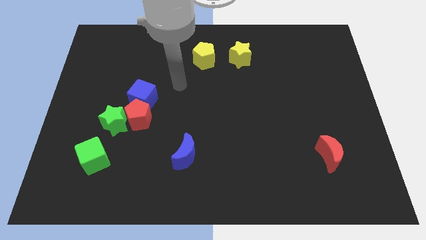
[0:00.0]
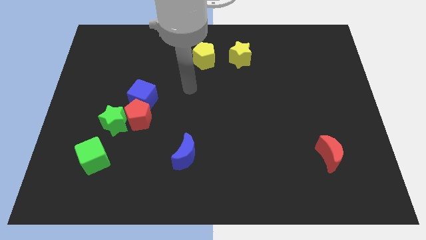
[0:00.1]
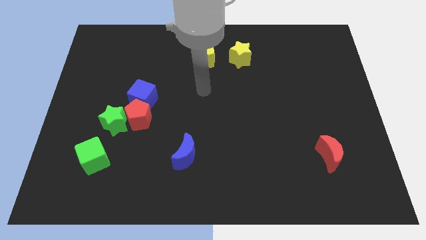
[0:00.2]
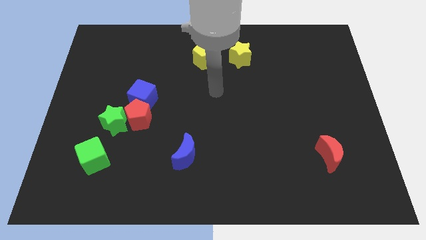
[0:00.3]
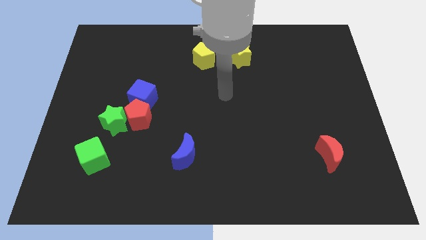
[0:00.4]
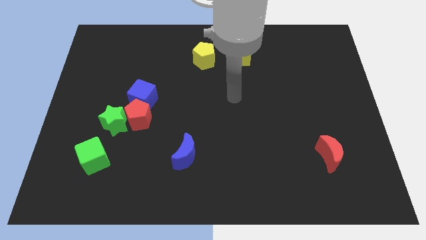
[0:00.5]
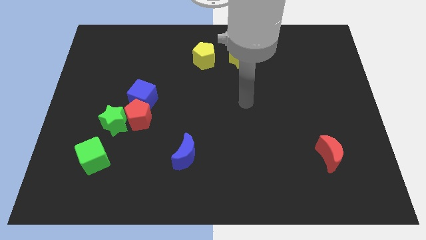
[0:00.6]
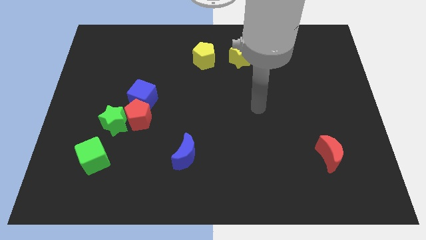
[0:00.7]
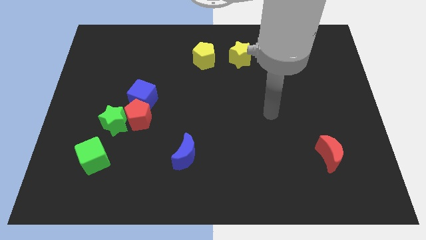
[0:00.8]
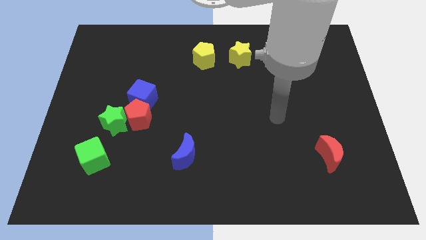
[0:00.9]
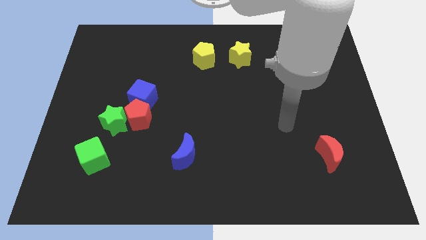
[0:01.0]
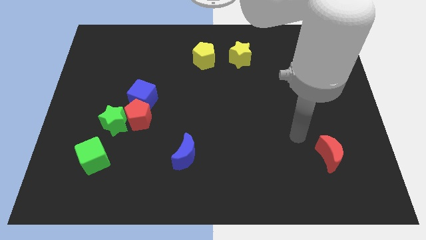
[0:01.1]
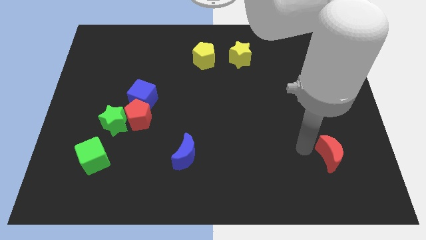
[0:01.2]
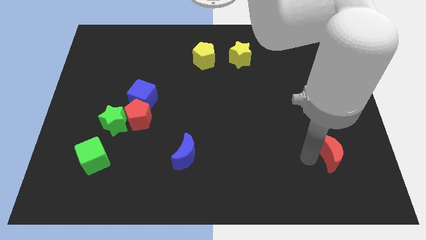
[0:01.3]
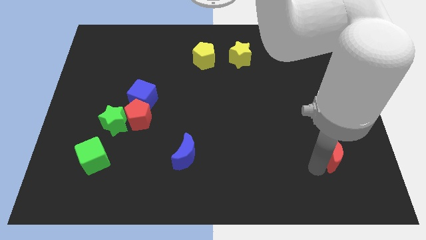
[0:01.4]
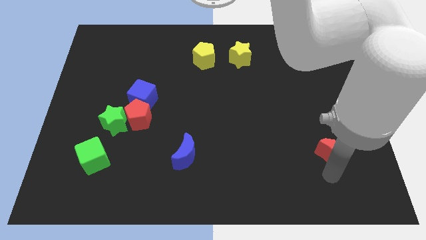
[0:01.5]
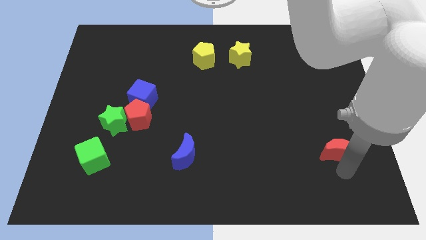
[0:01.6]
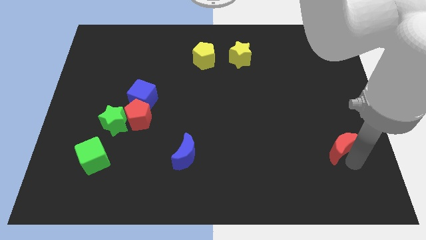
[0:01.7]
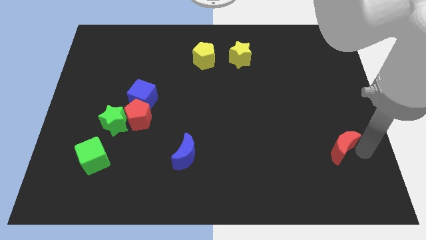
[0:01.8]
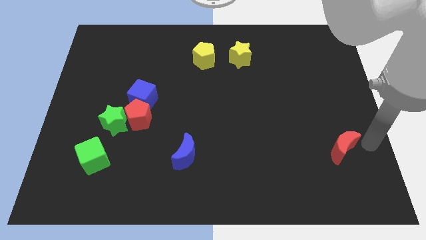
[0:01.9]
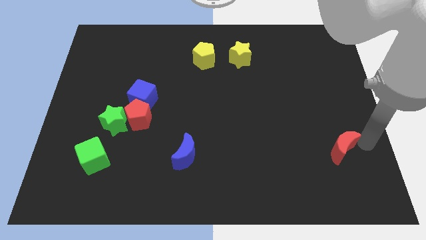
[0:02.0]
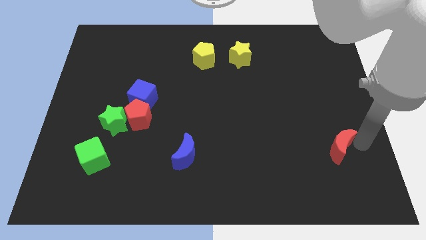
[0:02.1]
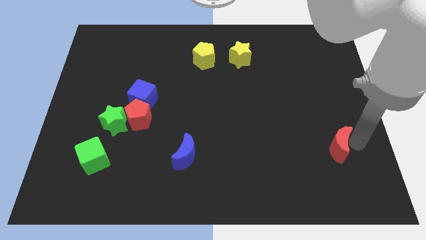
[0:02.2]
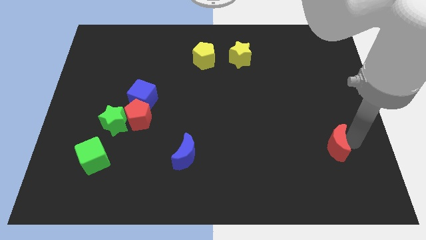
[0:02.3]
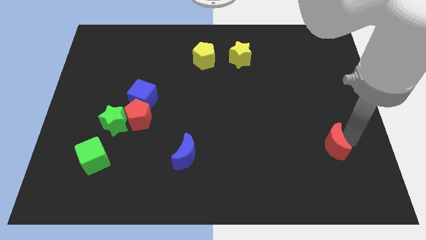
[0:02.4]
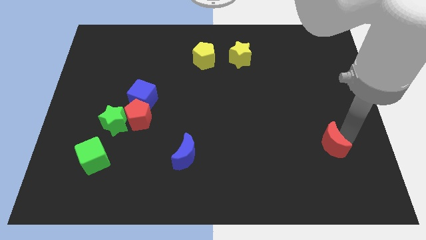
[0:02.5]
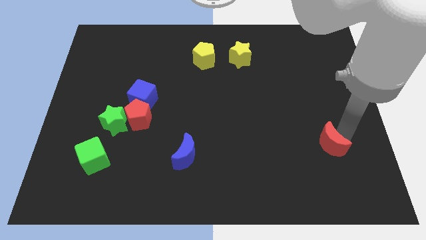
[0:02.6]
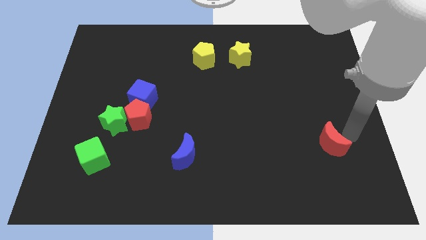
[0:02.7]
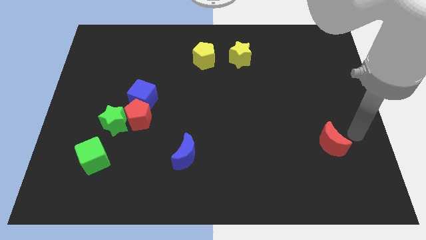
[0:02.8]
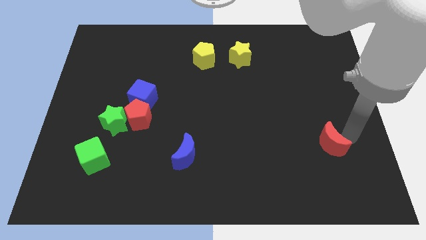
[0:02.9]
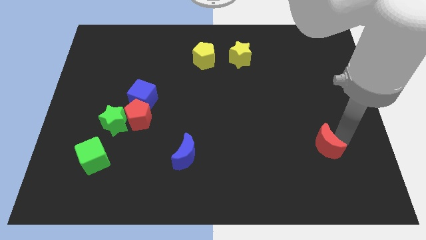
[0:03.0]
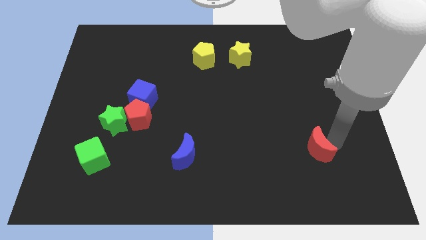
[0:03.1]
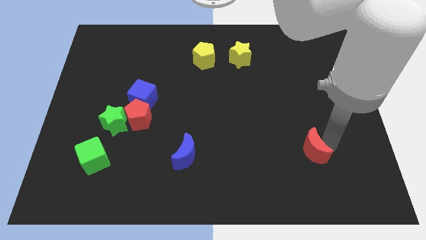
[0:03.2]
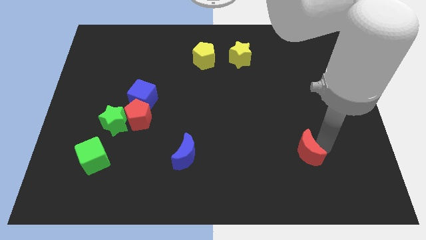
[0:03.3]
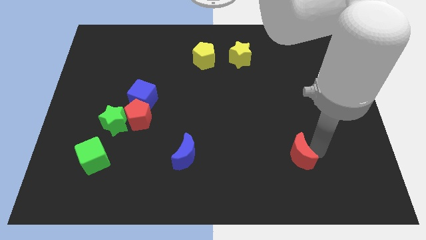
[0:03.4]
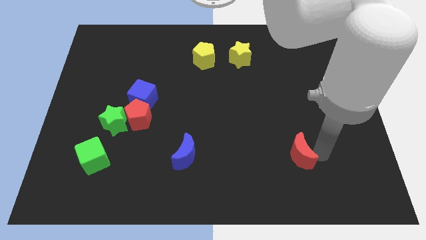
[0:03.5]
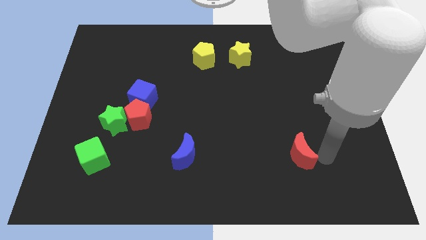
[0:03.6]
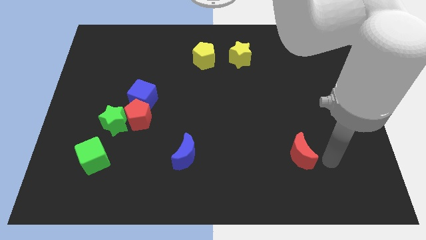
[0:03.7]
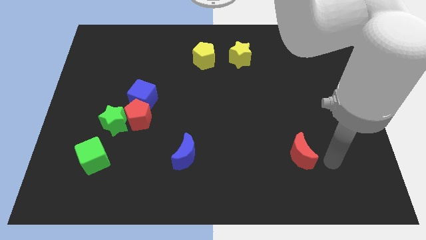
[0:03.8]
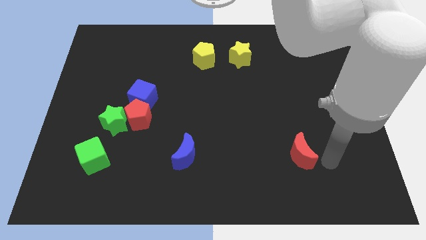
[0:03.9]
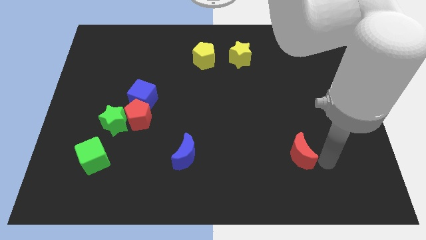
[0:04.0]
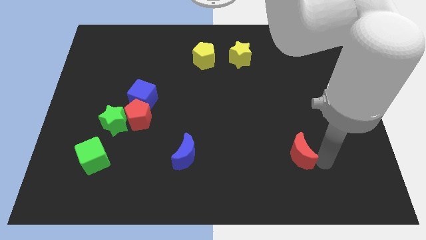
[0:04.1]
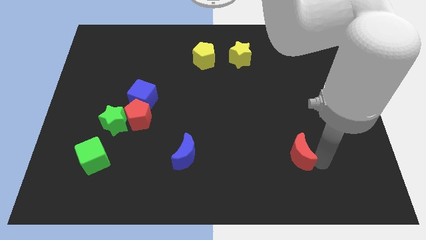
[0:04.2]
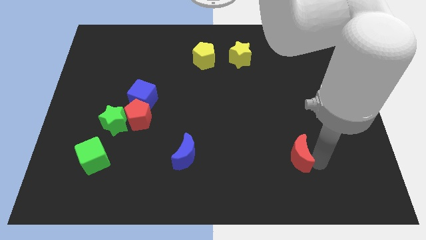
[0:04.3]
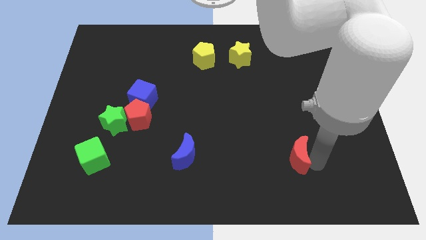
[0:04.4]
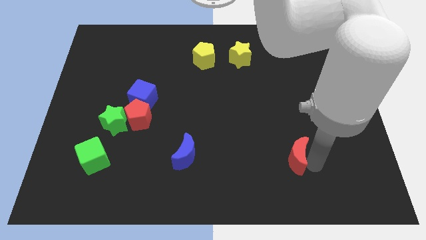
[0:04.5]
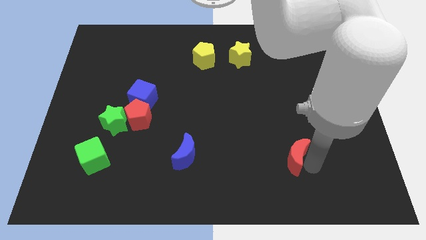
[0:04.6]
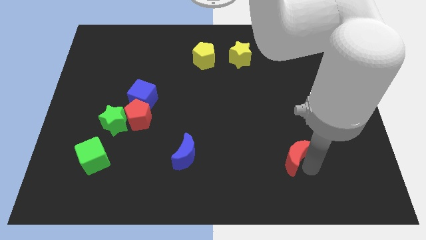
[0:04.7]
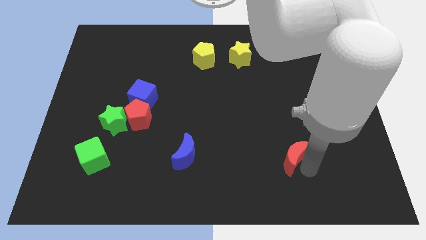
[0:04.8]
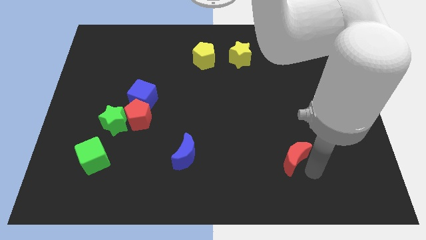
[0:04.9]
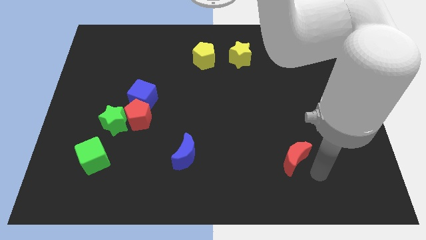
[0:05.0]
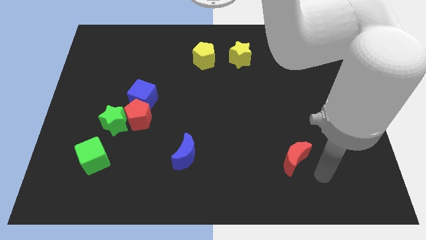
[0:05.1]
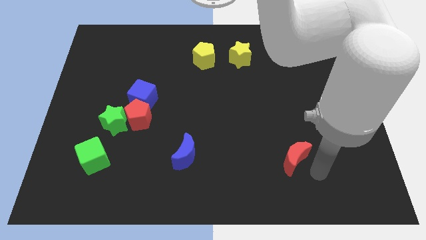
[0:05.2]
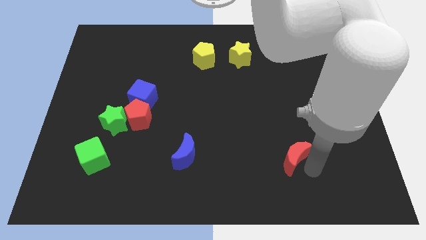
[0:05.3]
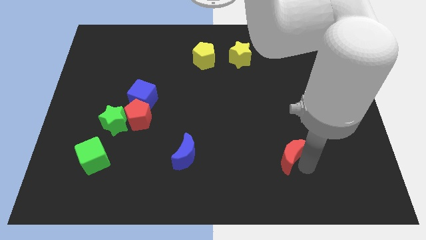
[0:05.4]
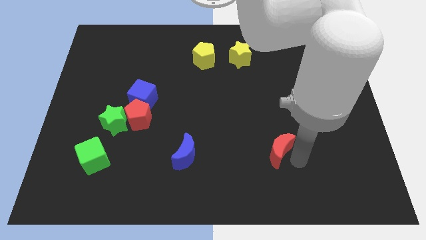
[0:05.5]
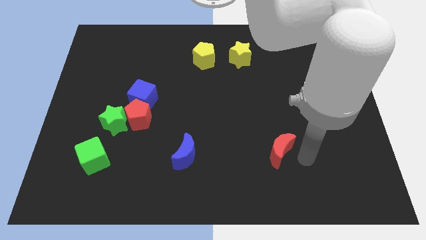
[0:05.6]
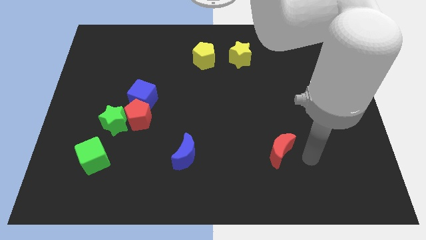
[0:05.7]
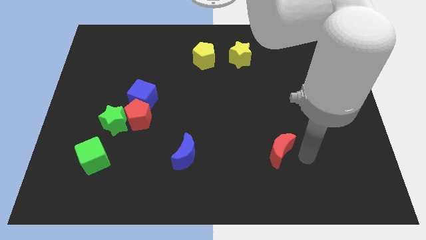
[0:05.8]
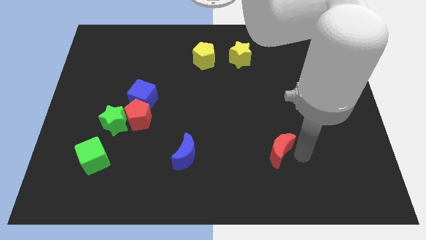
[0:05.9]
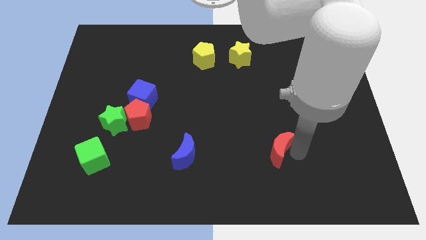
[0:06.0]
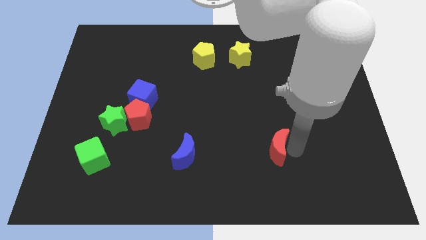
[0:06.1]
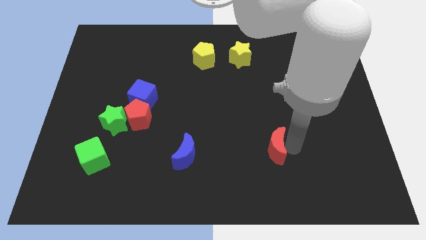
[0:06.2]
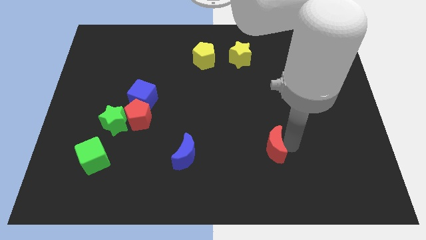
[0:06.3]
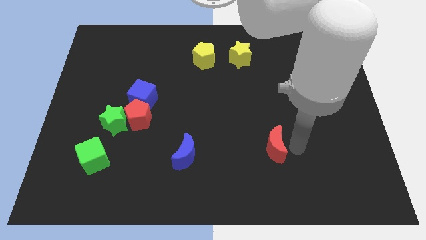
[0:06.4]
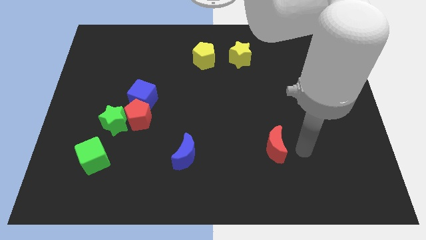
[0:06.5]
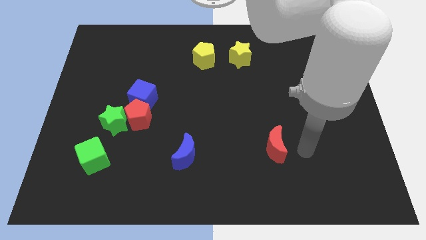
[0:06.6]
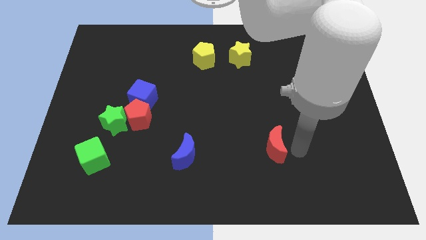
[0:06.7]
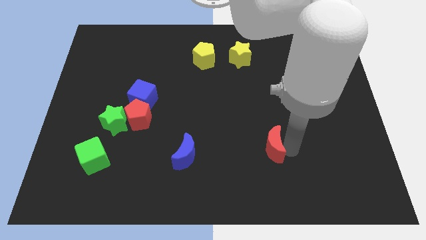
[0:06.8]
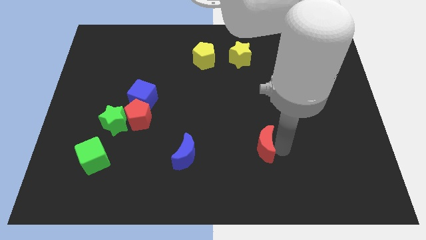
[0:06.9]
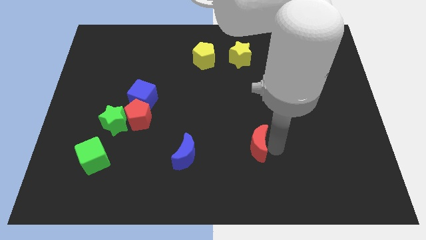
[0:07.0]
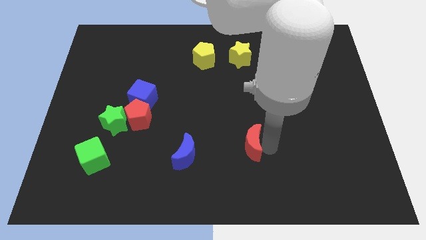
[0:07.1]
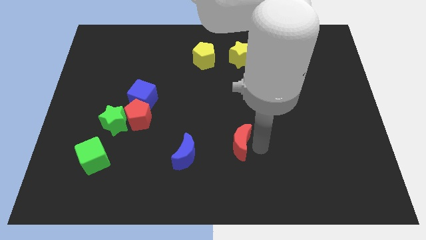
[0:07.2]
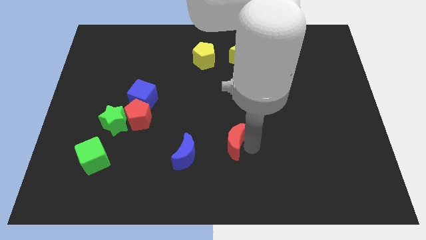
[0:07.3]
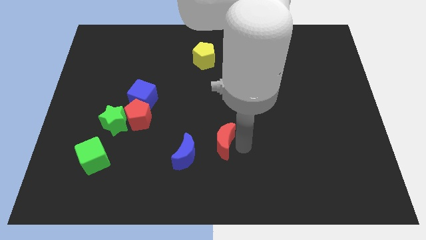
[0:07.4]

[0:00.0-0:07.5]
move the red moon to the top right of the blue moon
